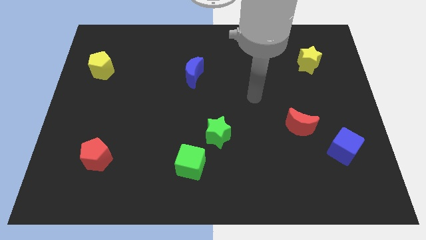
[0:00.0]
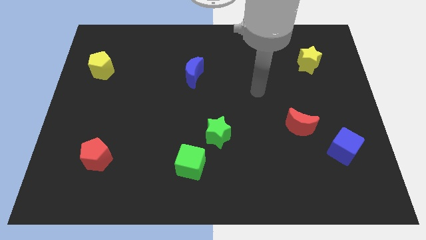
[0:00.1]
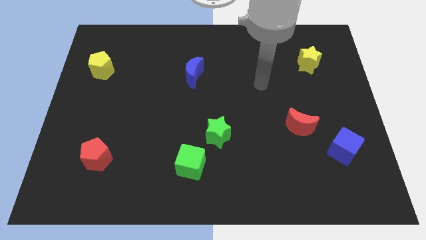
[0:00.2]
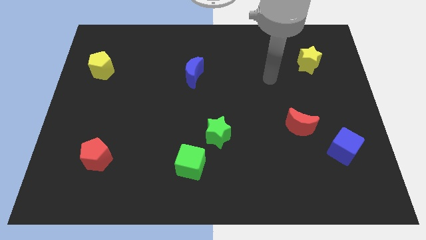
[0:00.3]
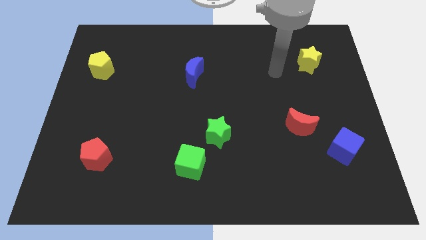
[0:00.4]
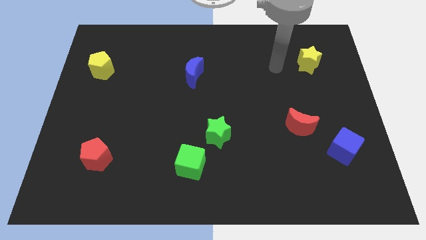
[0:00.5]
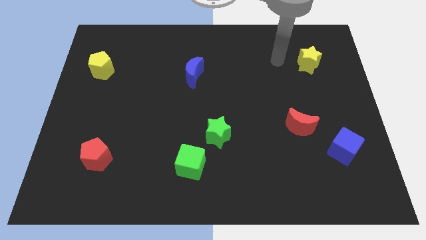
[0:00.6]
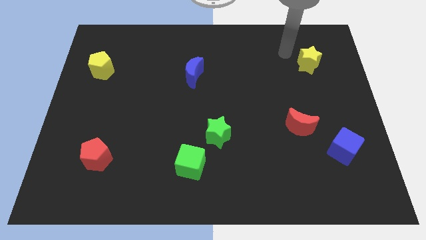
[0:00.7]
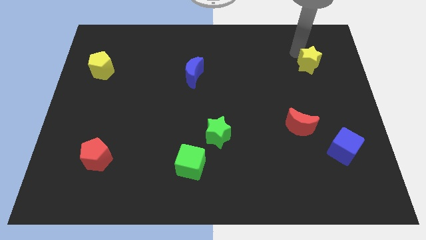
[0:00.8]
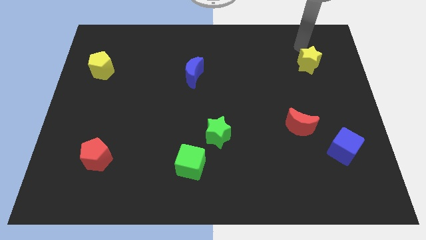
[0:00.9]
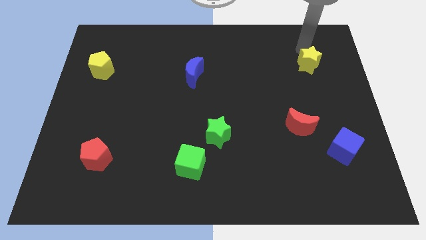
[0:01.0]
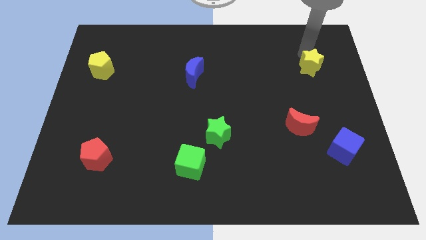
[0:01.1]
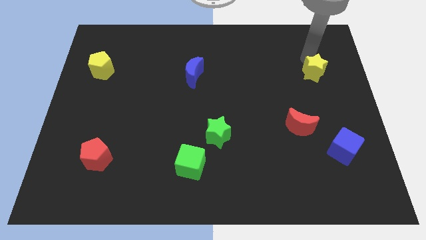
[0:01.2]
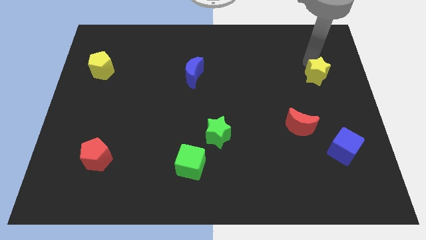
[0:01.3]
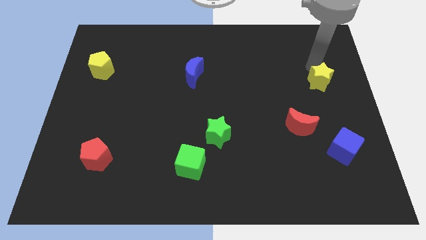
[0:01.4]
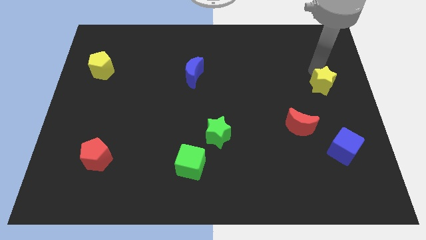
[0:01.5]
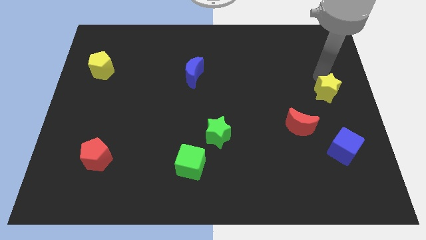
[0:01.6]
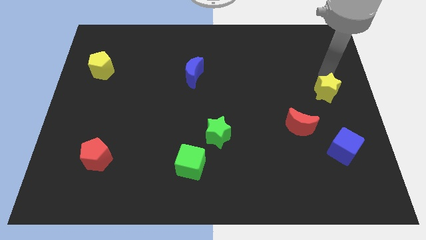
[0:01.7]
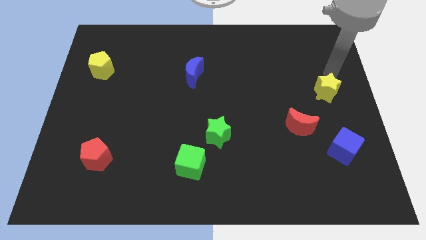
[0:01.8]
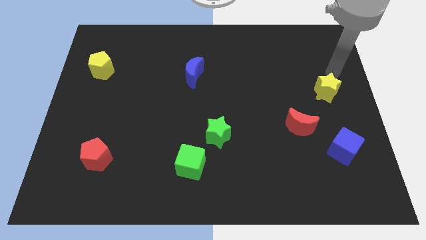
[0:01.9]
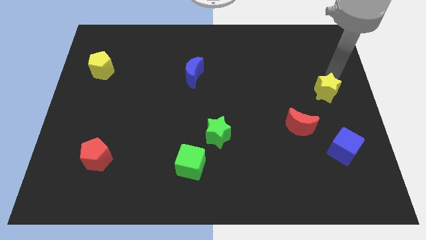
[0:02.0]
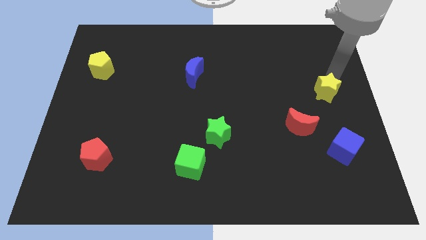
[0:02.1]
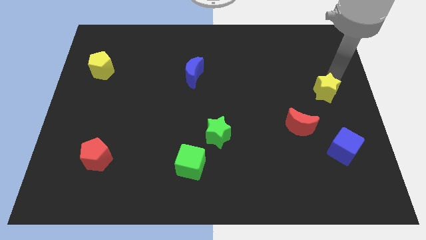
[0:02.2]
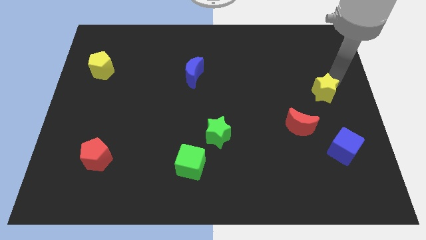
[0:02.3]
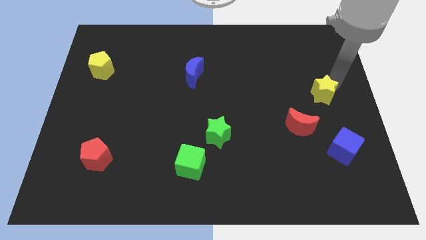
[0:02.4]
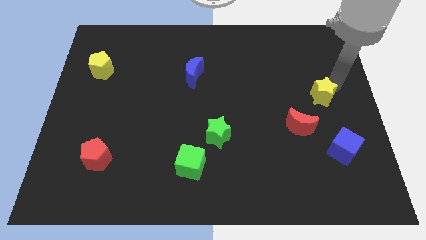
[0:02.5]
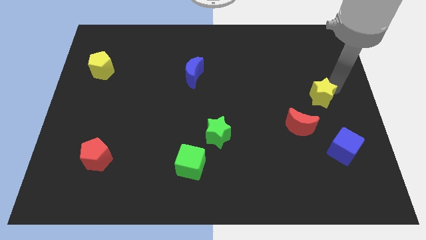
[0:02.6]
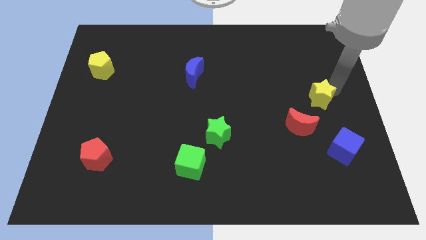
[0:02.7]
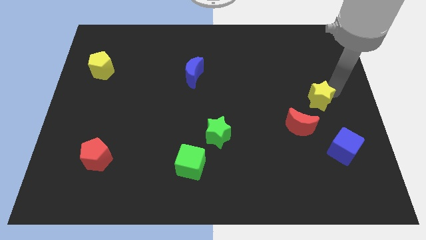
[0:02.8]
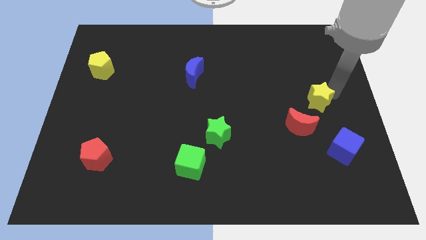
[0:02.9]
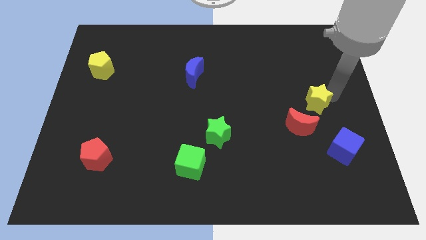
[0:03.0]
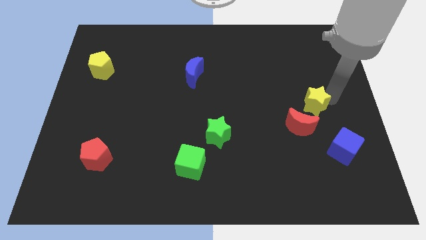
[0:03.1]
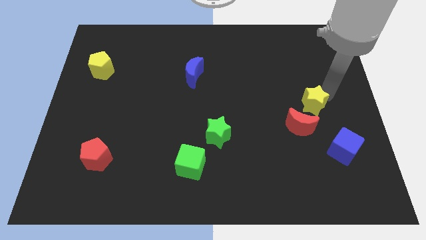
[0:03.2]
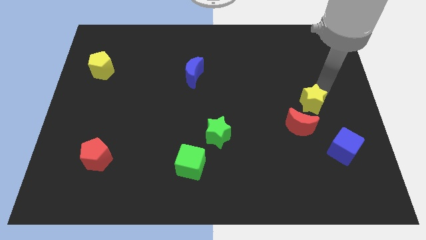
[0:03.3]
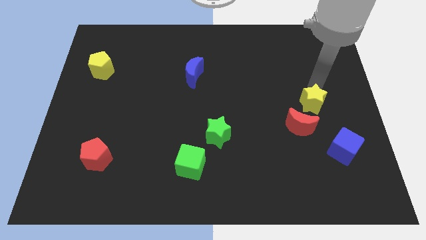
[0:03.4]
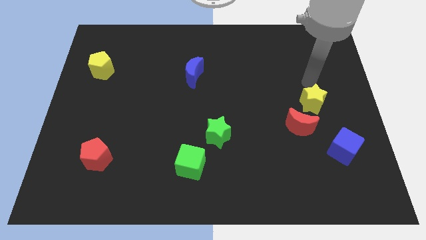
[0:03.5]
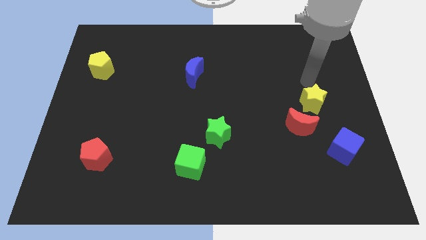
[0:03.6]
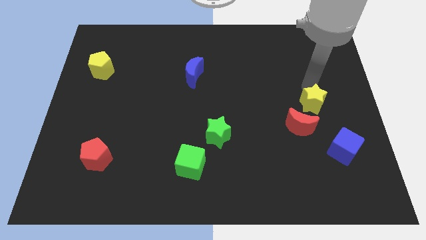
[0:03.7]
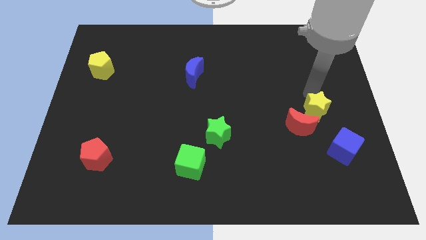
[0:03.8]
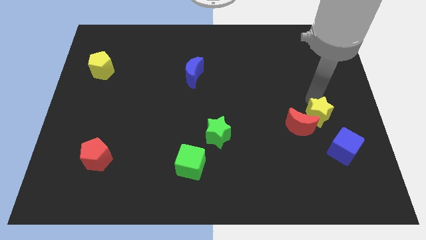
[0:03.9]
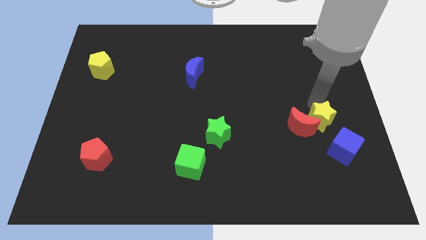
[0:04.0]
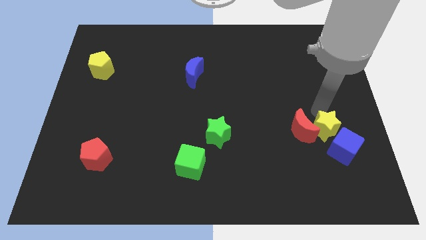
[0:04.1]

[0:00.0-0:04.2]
move the yellow star downwards

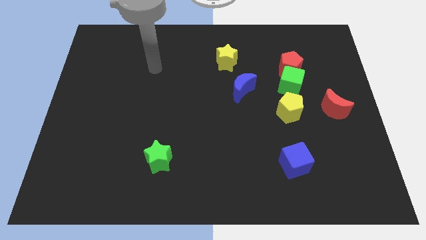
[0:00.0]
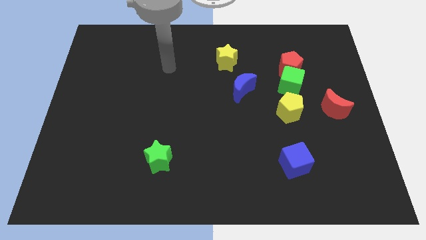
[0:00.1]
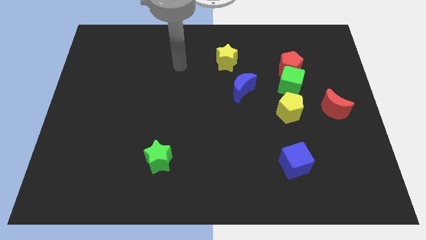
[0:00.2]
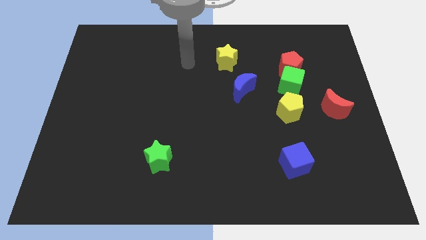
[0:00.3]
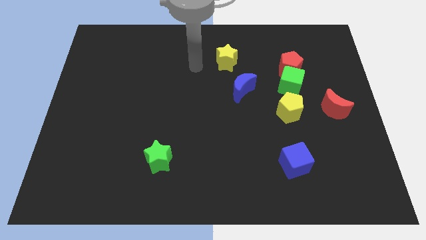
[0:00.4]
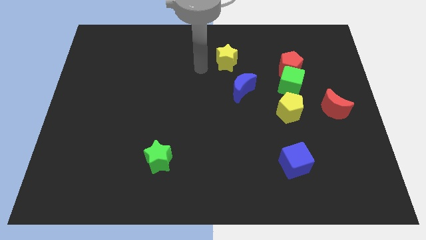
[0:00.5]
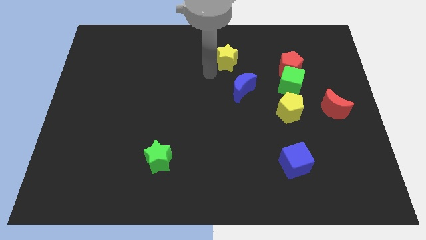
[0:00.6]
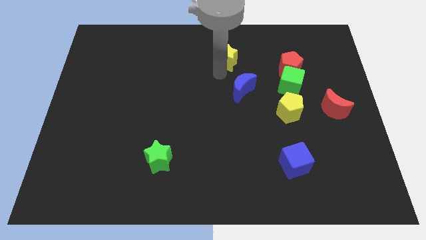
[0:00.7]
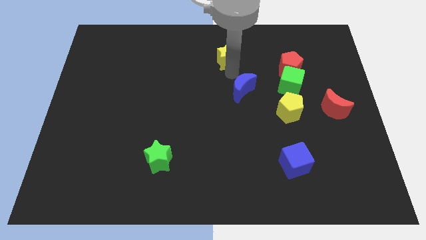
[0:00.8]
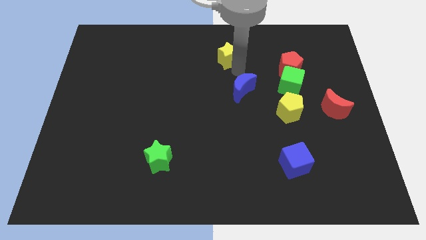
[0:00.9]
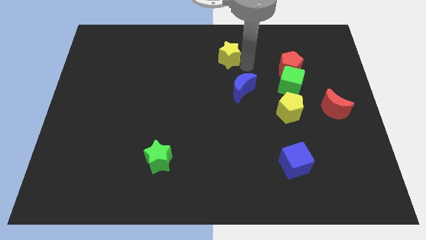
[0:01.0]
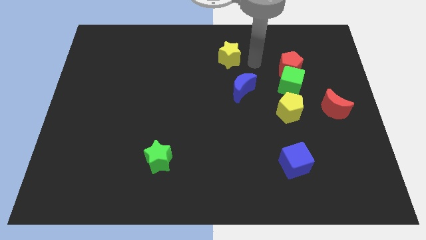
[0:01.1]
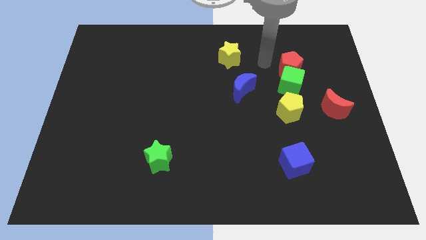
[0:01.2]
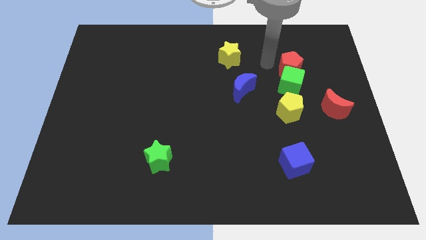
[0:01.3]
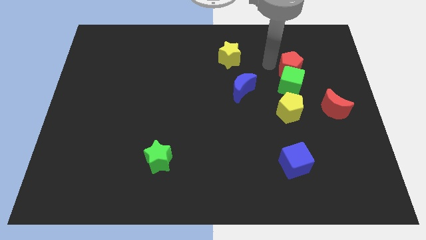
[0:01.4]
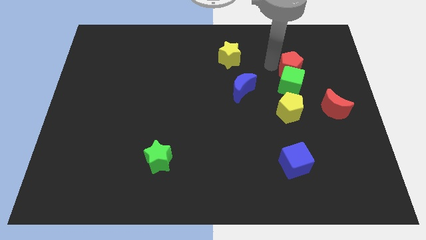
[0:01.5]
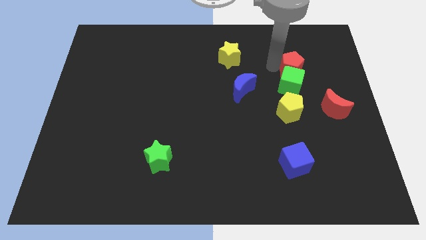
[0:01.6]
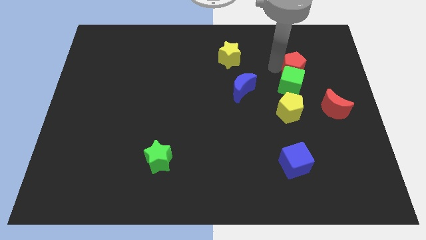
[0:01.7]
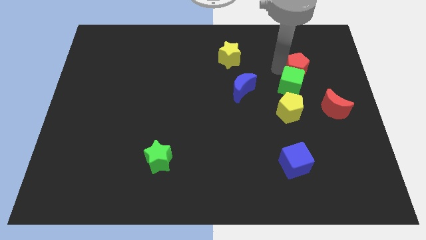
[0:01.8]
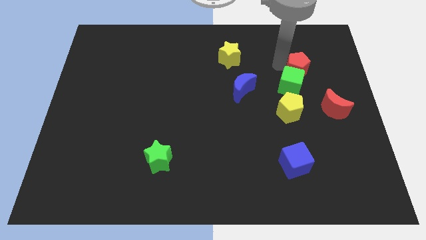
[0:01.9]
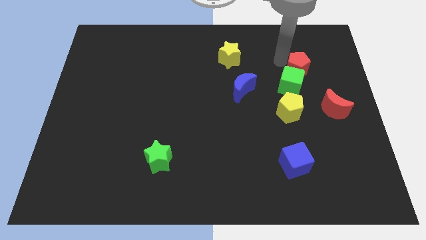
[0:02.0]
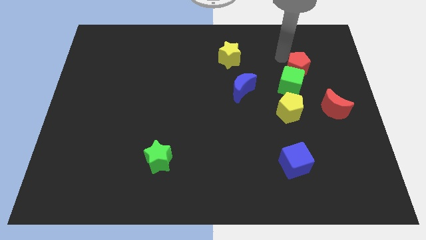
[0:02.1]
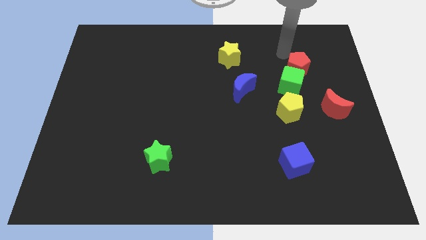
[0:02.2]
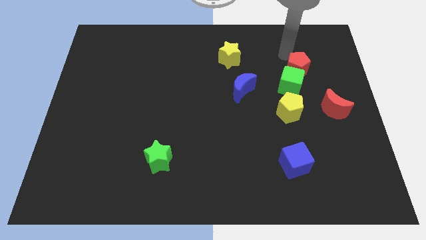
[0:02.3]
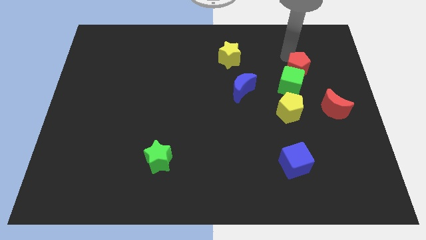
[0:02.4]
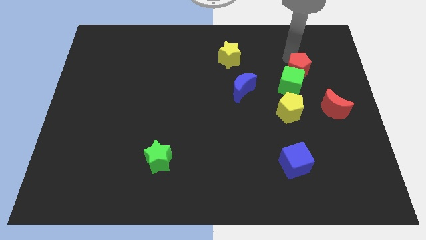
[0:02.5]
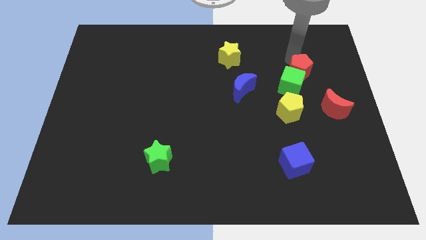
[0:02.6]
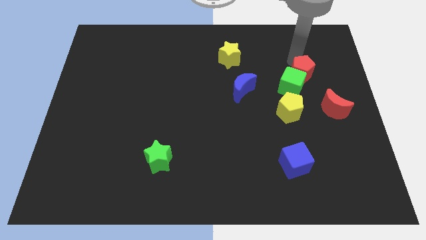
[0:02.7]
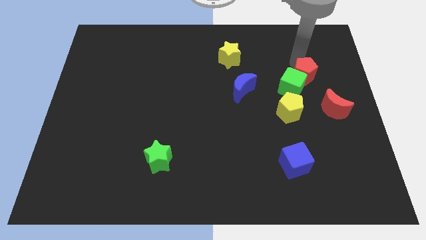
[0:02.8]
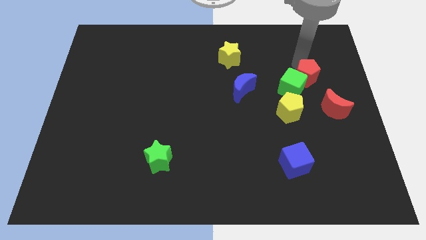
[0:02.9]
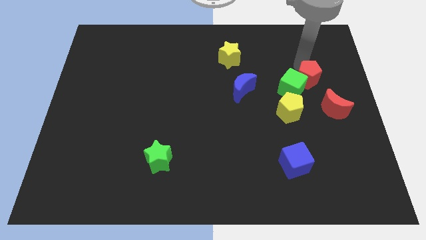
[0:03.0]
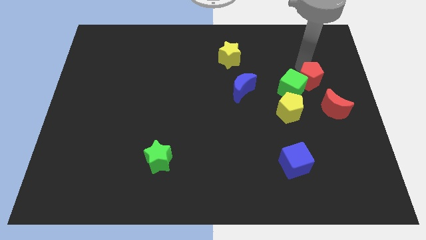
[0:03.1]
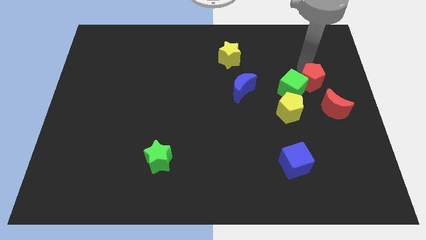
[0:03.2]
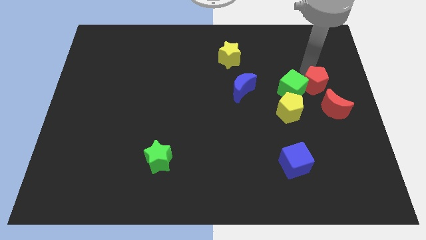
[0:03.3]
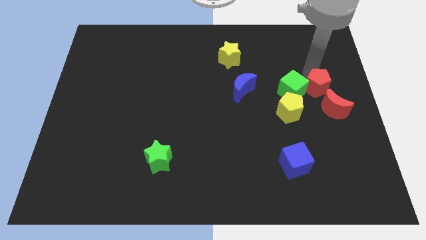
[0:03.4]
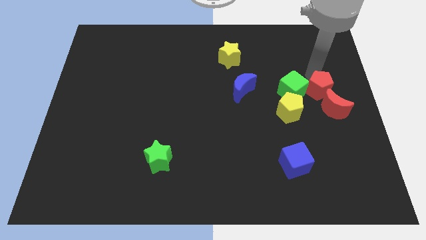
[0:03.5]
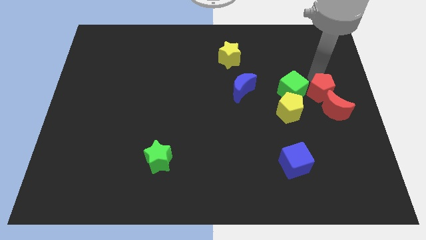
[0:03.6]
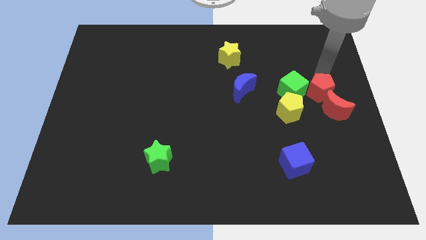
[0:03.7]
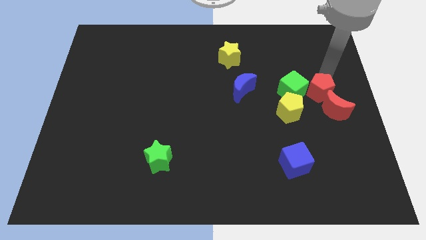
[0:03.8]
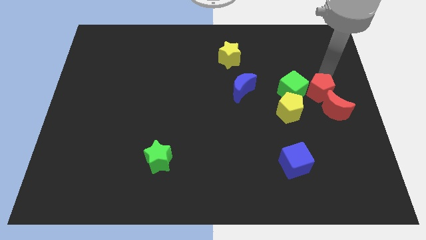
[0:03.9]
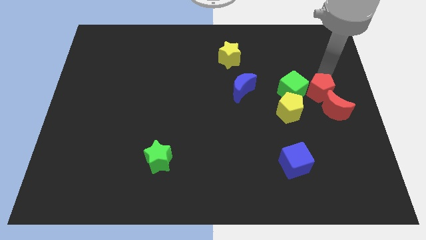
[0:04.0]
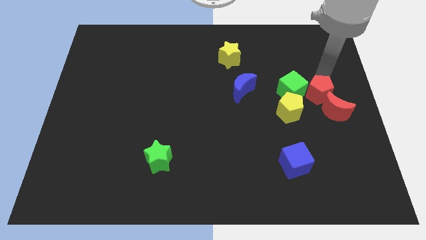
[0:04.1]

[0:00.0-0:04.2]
move the red pentagon down a bit
